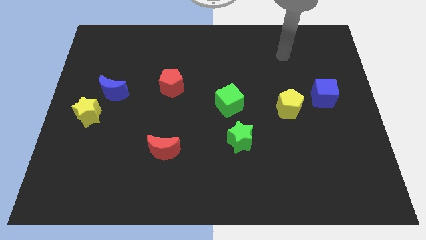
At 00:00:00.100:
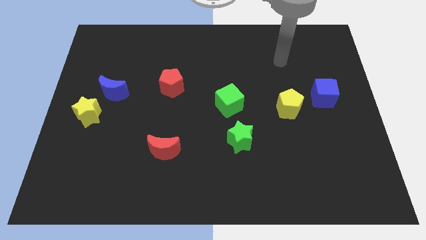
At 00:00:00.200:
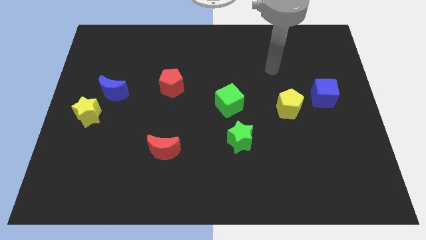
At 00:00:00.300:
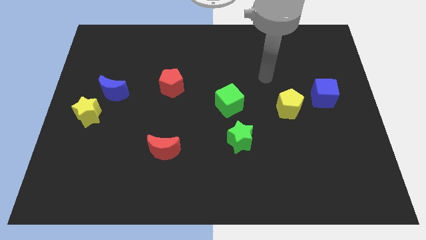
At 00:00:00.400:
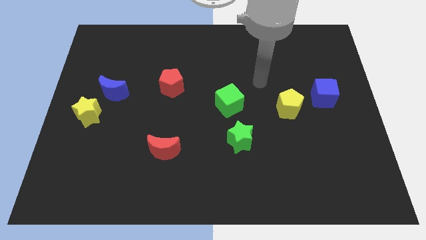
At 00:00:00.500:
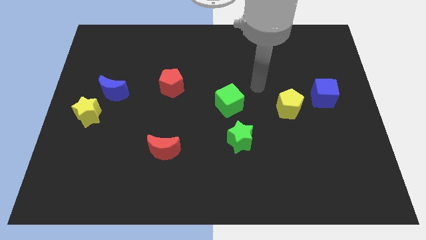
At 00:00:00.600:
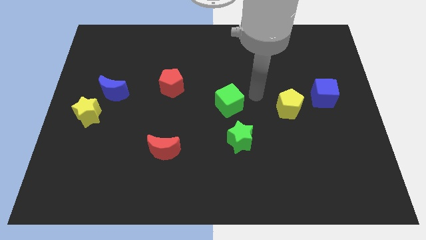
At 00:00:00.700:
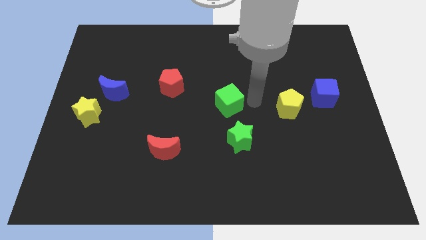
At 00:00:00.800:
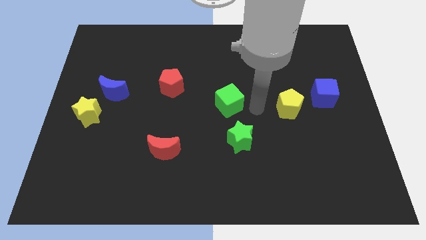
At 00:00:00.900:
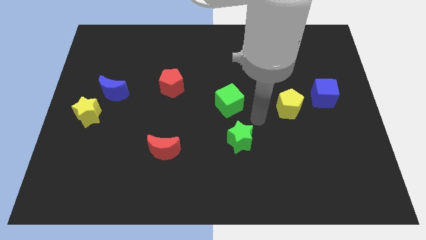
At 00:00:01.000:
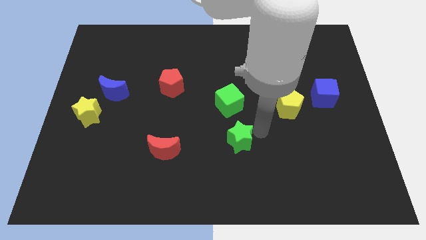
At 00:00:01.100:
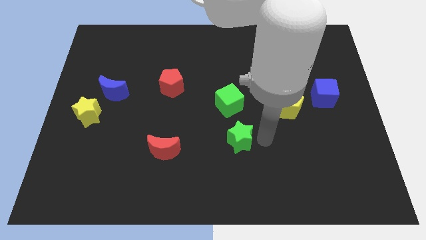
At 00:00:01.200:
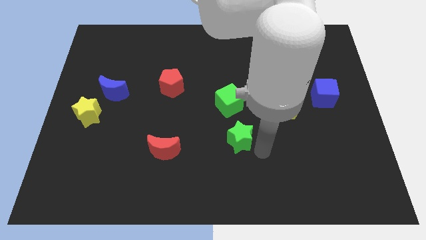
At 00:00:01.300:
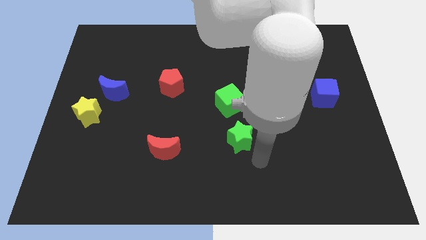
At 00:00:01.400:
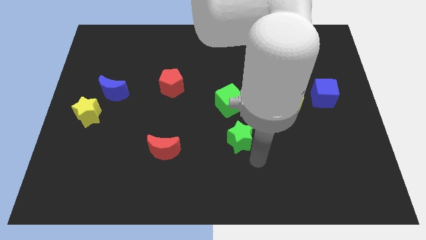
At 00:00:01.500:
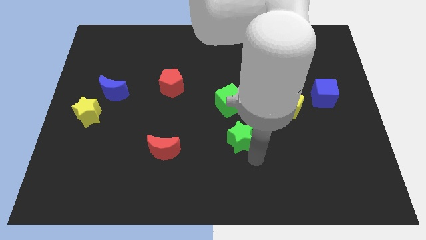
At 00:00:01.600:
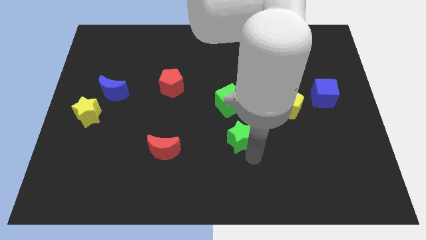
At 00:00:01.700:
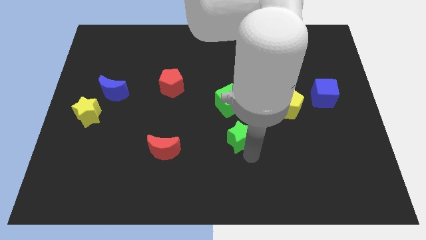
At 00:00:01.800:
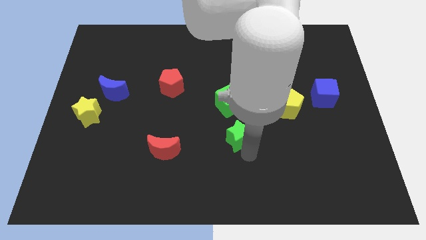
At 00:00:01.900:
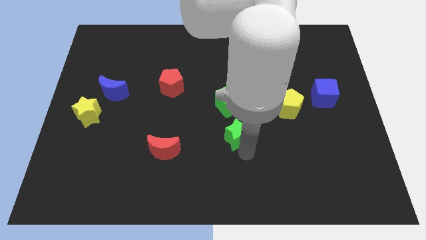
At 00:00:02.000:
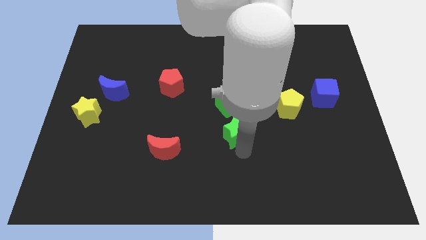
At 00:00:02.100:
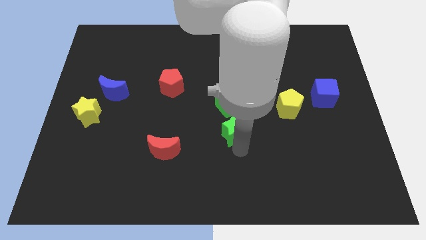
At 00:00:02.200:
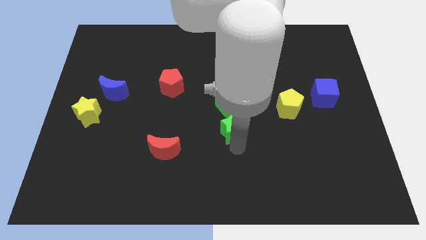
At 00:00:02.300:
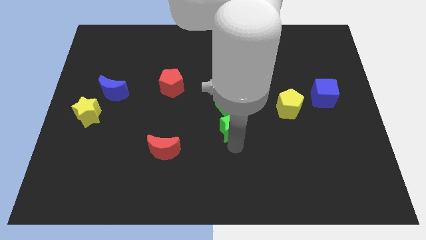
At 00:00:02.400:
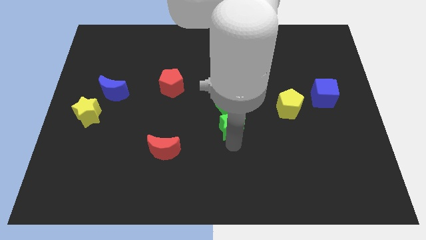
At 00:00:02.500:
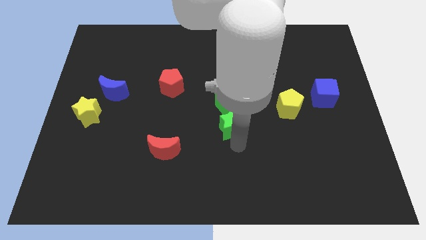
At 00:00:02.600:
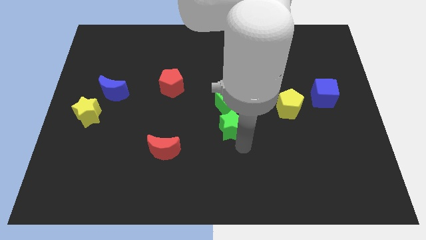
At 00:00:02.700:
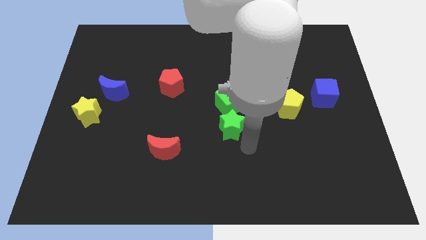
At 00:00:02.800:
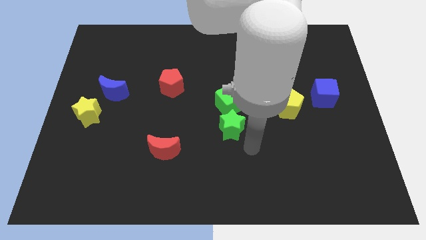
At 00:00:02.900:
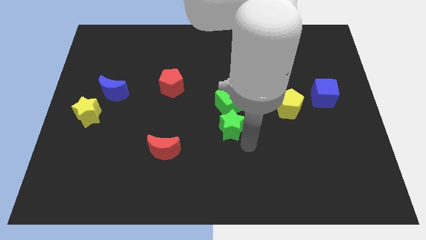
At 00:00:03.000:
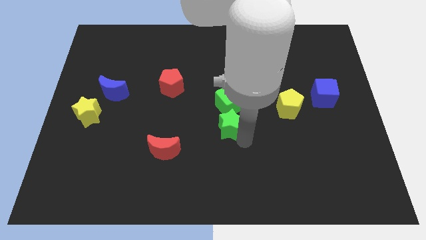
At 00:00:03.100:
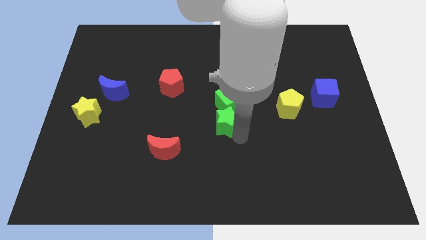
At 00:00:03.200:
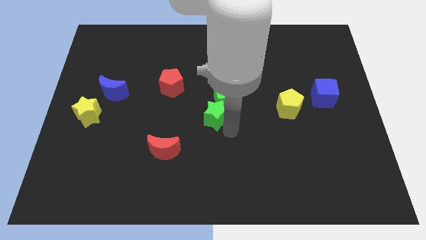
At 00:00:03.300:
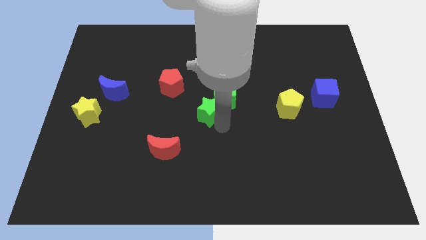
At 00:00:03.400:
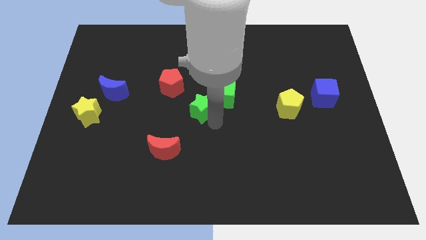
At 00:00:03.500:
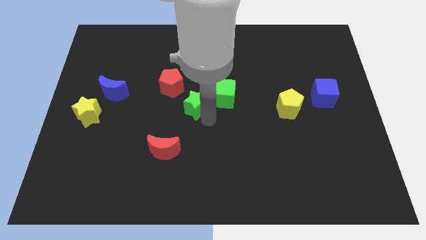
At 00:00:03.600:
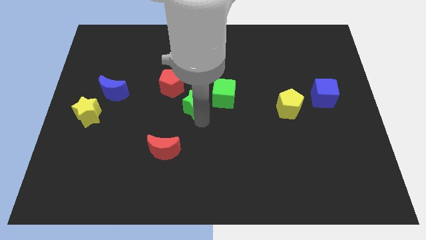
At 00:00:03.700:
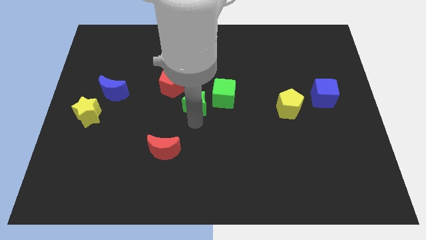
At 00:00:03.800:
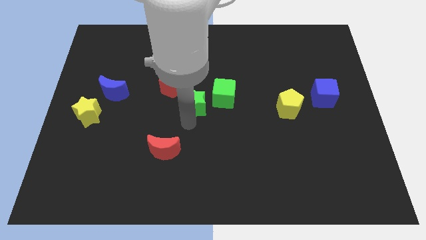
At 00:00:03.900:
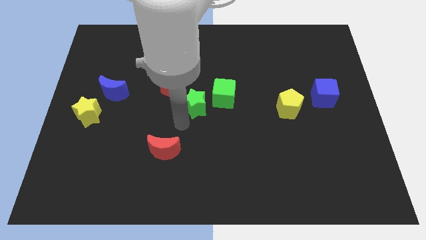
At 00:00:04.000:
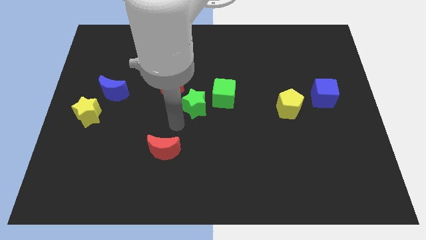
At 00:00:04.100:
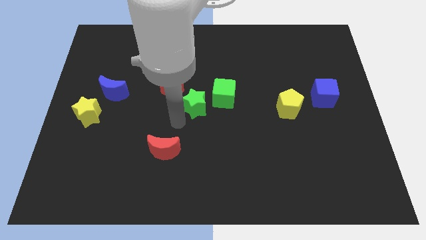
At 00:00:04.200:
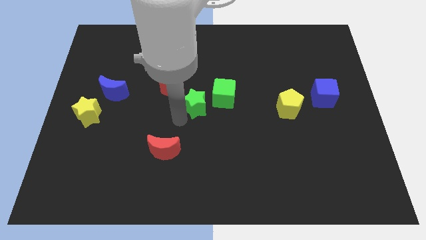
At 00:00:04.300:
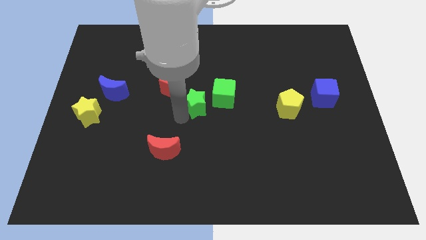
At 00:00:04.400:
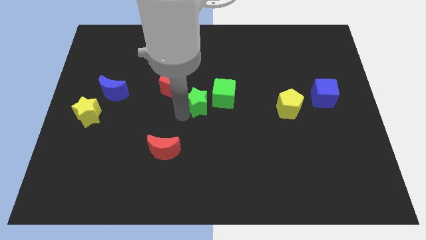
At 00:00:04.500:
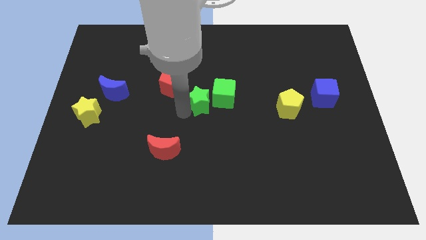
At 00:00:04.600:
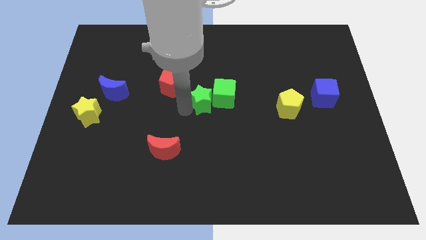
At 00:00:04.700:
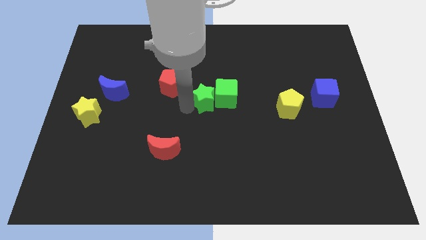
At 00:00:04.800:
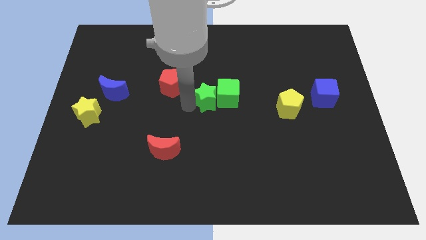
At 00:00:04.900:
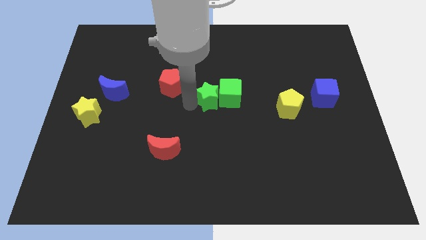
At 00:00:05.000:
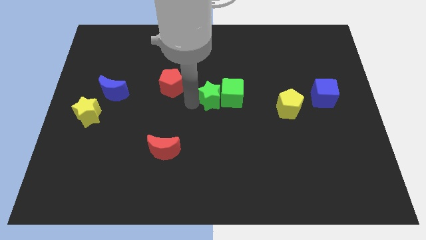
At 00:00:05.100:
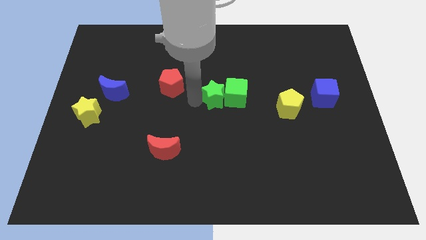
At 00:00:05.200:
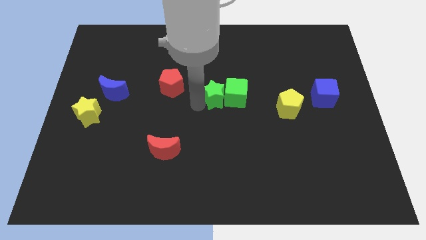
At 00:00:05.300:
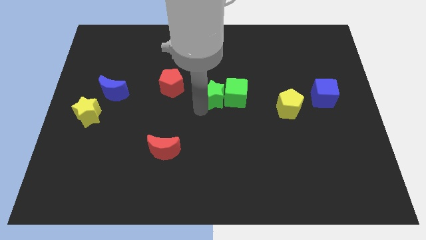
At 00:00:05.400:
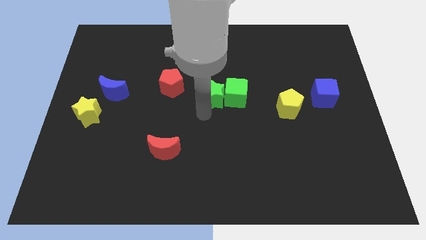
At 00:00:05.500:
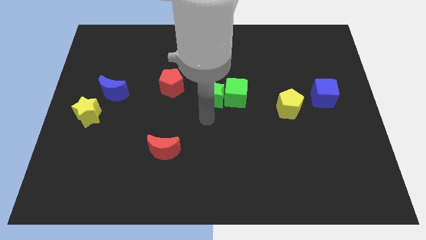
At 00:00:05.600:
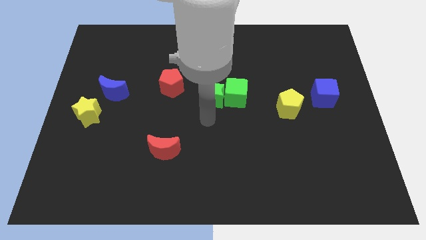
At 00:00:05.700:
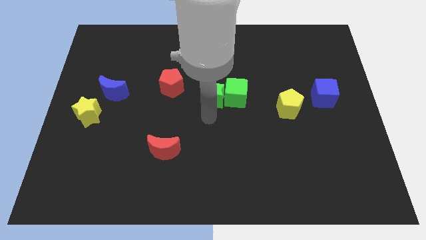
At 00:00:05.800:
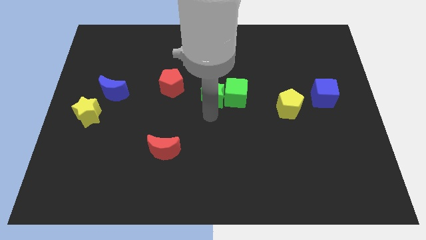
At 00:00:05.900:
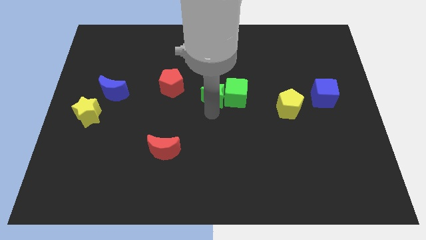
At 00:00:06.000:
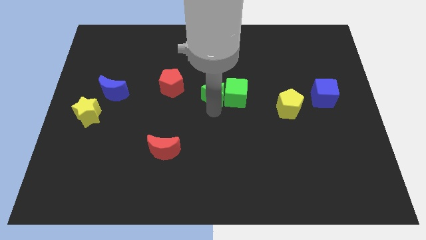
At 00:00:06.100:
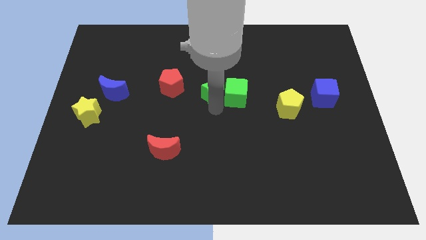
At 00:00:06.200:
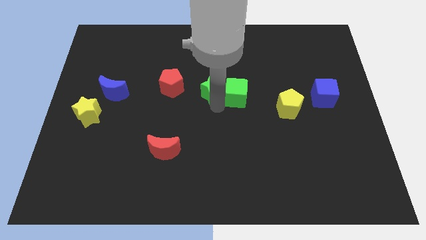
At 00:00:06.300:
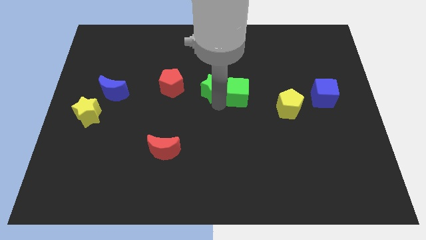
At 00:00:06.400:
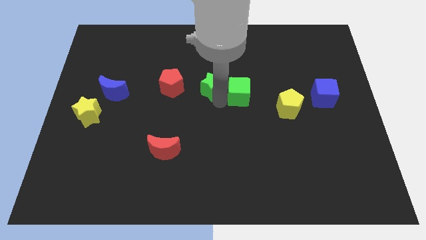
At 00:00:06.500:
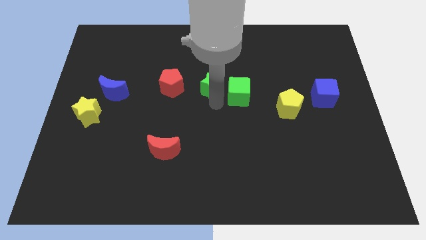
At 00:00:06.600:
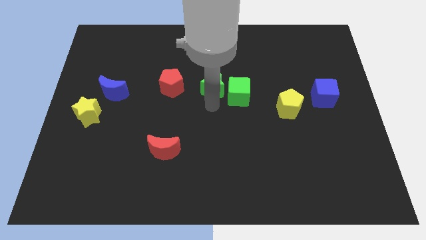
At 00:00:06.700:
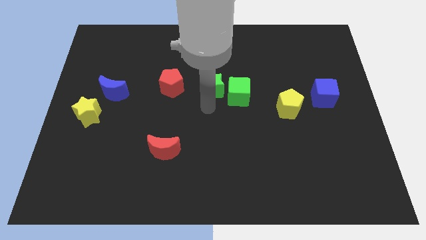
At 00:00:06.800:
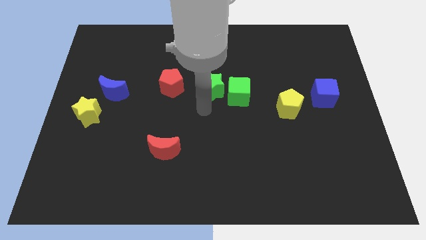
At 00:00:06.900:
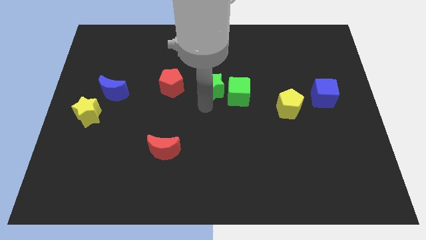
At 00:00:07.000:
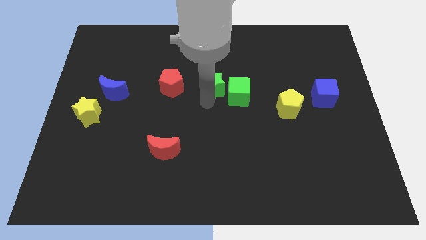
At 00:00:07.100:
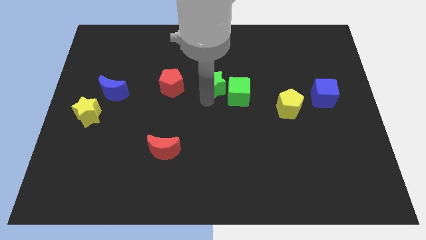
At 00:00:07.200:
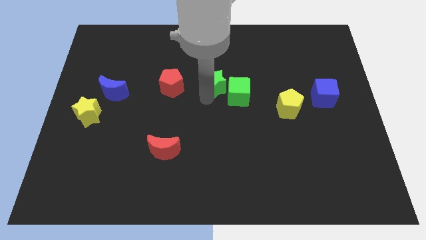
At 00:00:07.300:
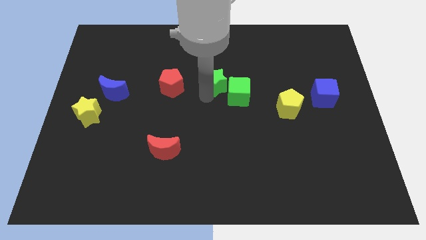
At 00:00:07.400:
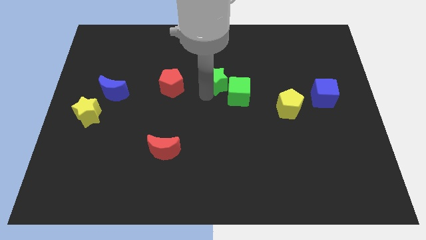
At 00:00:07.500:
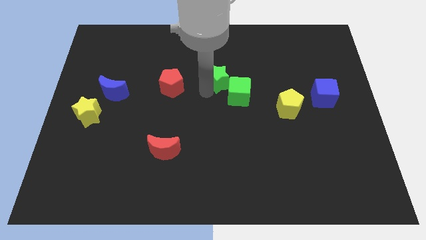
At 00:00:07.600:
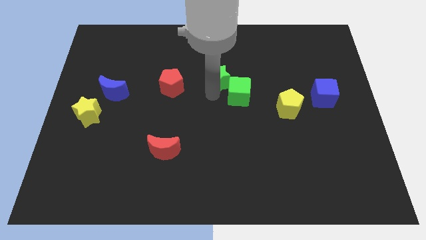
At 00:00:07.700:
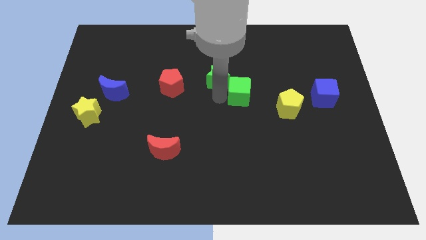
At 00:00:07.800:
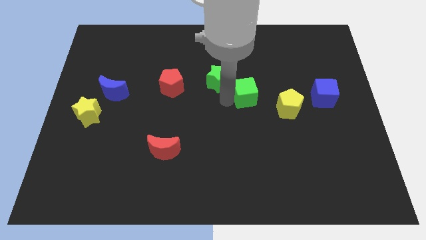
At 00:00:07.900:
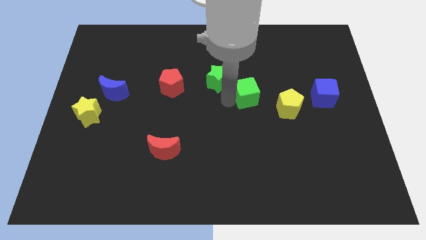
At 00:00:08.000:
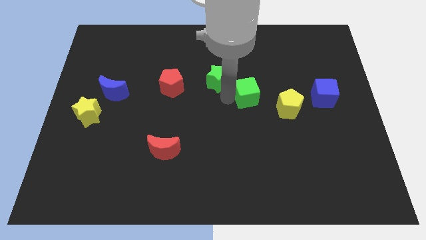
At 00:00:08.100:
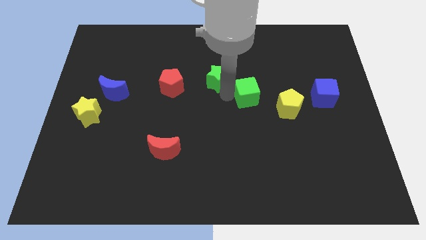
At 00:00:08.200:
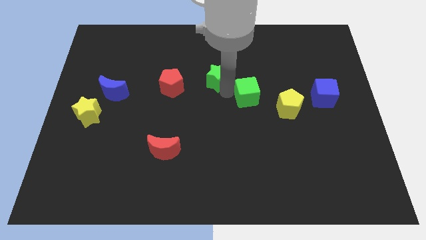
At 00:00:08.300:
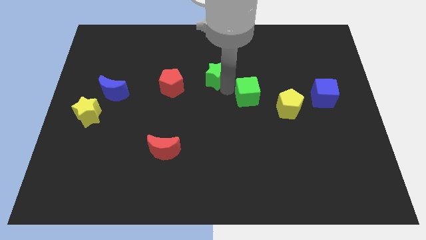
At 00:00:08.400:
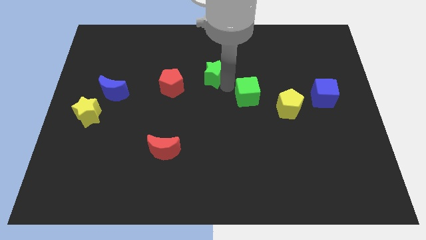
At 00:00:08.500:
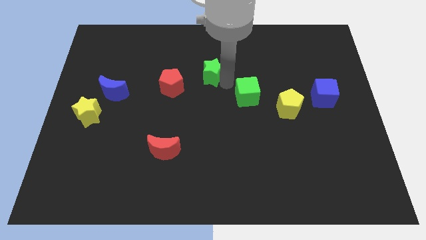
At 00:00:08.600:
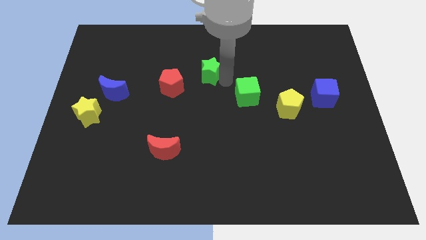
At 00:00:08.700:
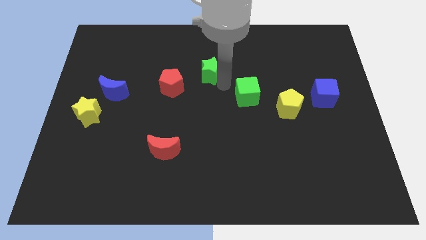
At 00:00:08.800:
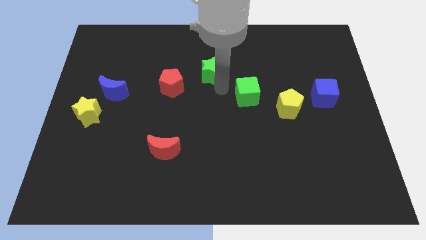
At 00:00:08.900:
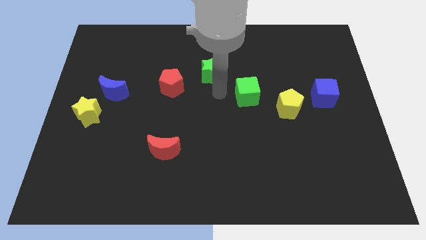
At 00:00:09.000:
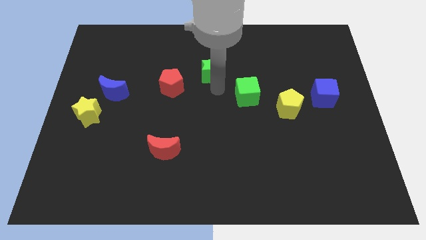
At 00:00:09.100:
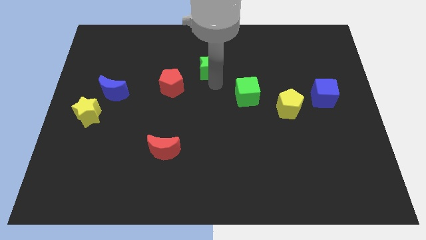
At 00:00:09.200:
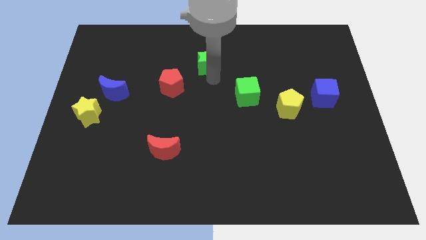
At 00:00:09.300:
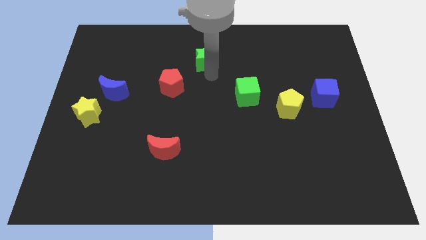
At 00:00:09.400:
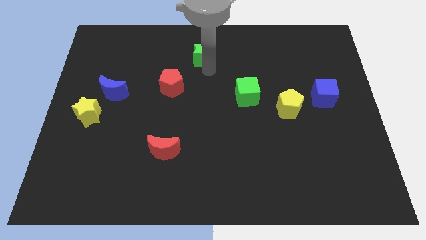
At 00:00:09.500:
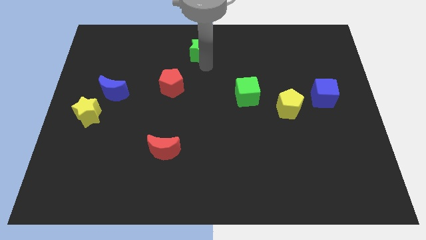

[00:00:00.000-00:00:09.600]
slide the green star to the top side
